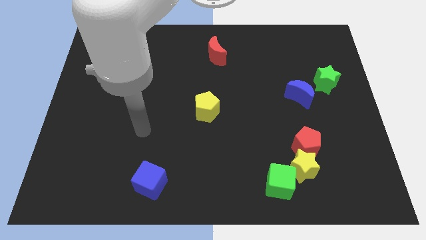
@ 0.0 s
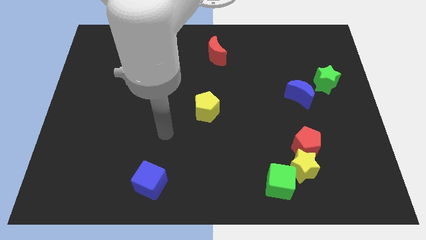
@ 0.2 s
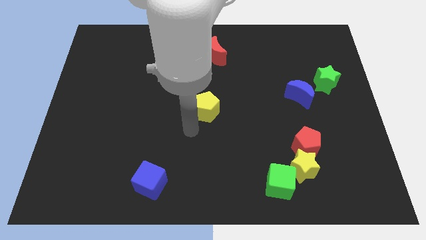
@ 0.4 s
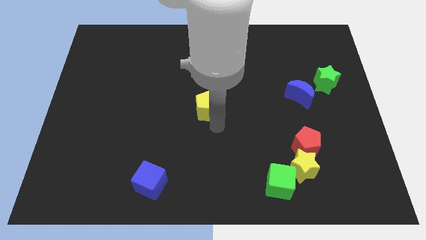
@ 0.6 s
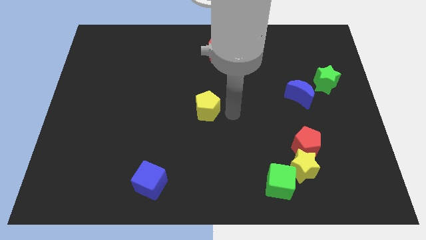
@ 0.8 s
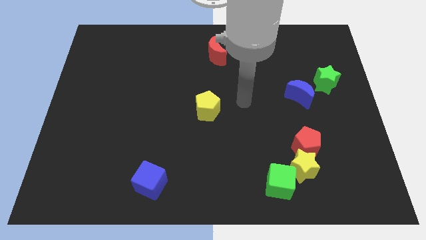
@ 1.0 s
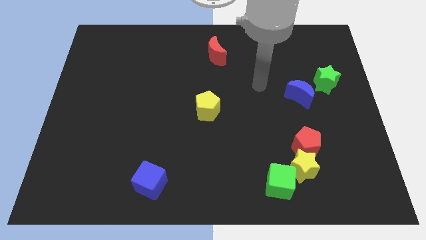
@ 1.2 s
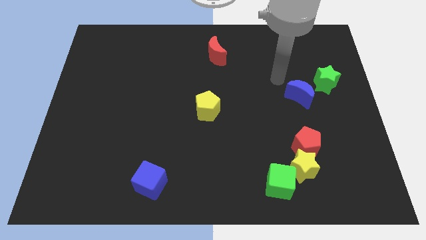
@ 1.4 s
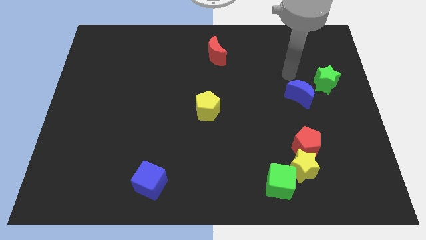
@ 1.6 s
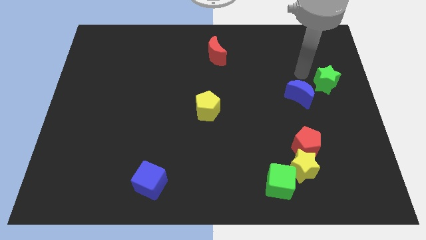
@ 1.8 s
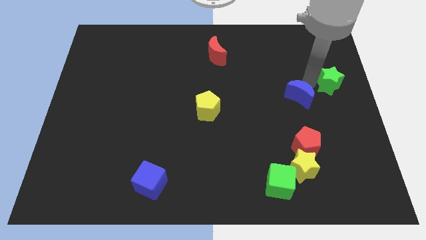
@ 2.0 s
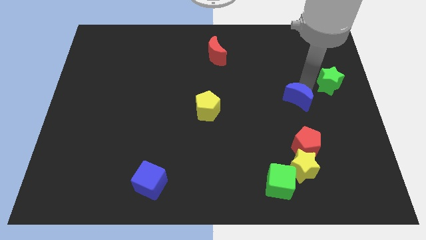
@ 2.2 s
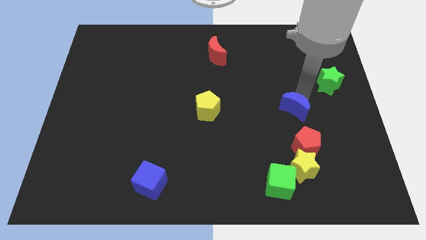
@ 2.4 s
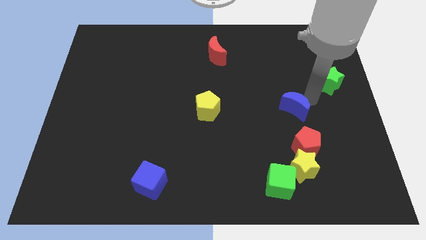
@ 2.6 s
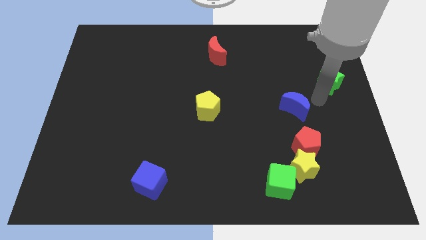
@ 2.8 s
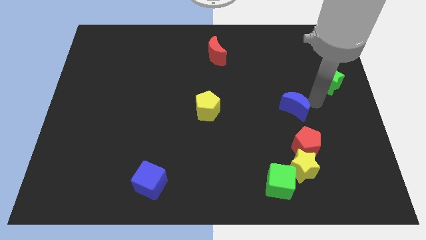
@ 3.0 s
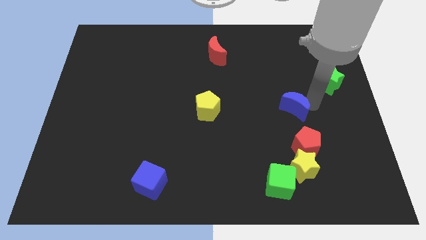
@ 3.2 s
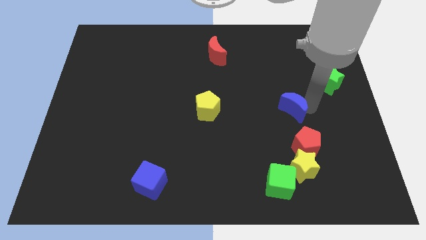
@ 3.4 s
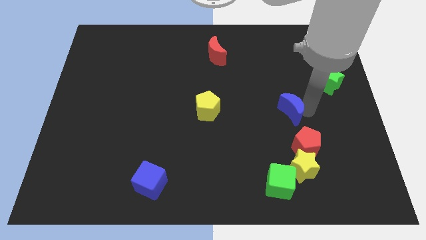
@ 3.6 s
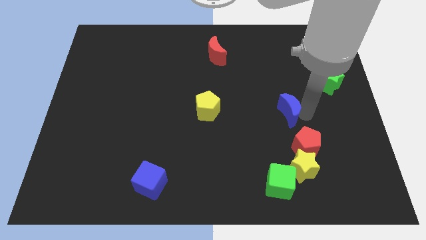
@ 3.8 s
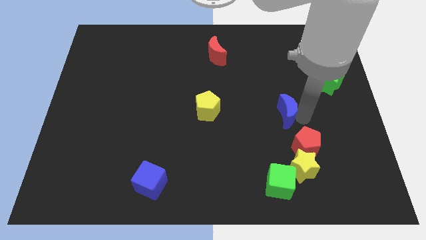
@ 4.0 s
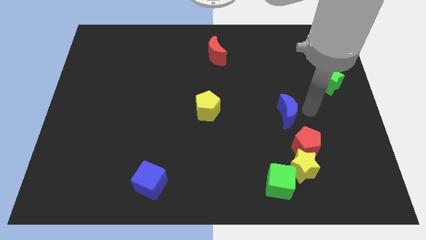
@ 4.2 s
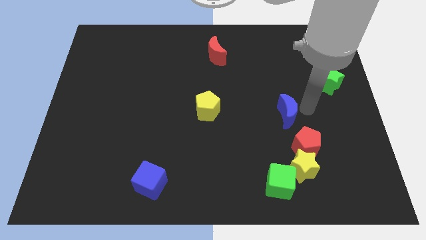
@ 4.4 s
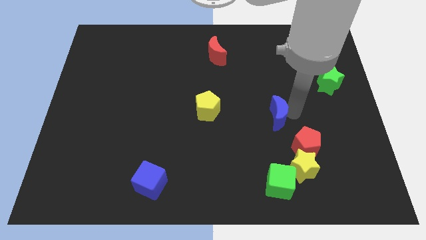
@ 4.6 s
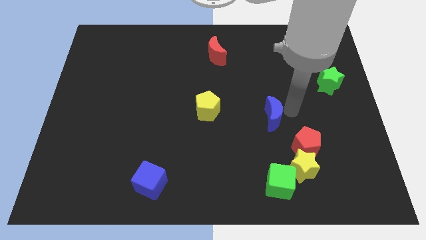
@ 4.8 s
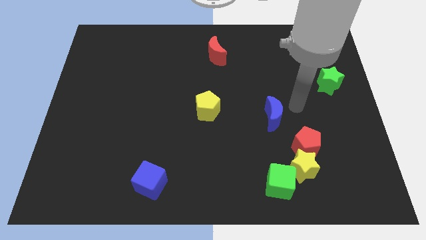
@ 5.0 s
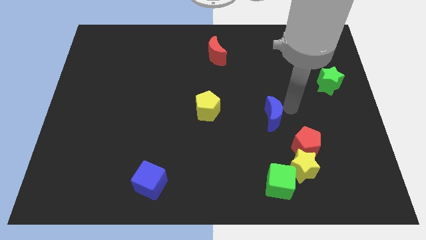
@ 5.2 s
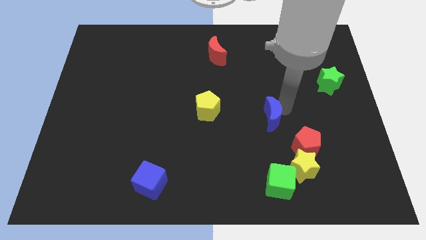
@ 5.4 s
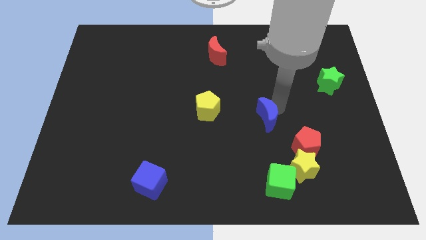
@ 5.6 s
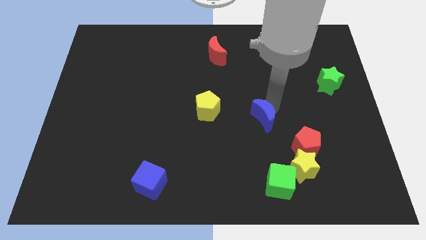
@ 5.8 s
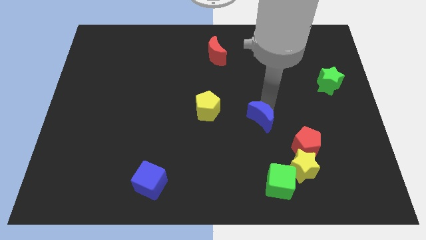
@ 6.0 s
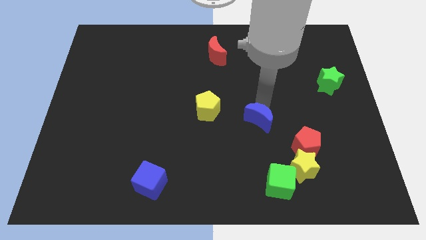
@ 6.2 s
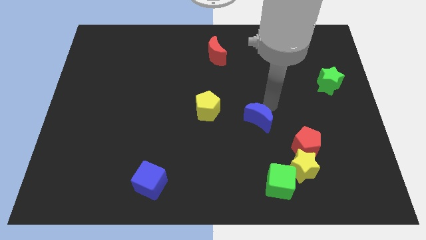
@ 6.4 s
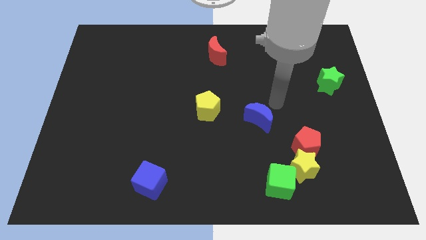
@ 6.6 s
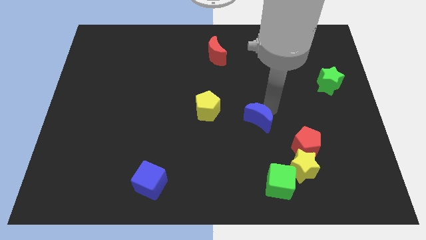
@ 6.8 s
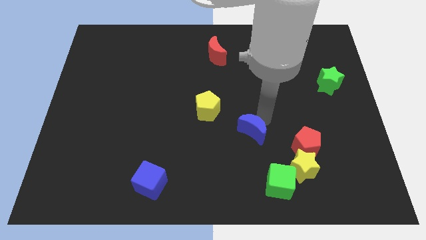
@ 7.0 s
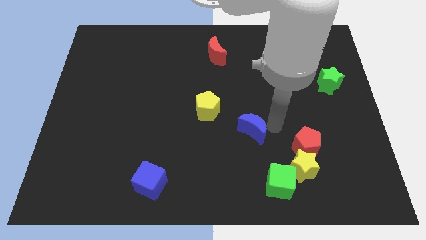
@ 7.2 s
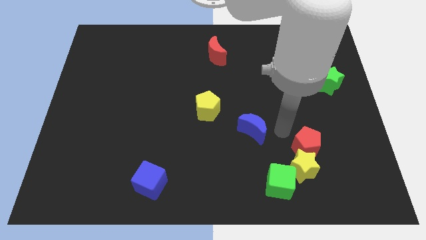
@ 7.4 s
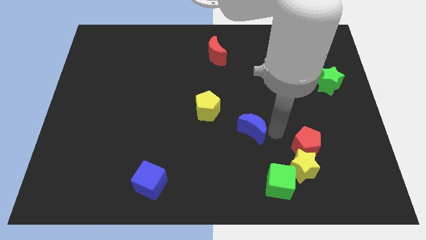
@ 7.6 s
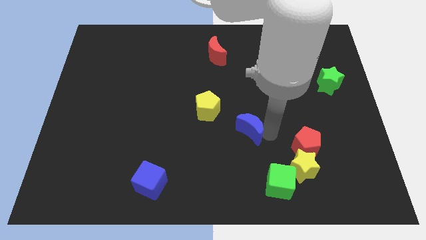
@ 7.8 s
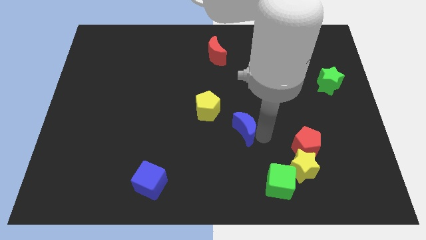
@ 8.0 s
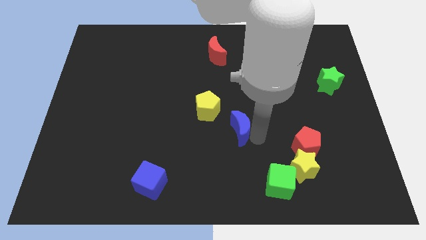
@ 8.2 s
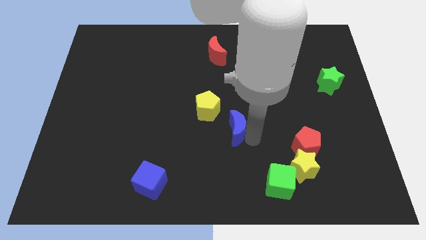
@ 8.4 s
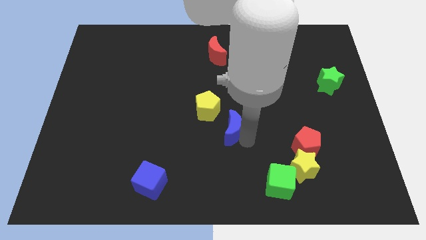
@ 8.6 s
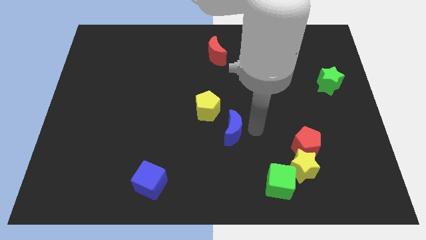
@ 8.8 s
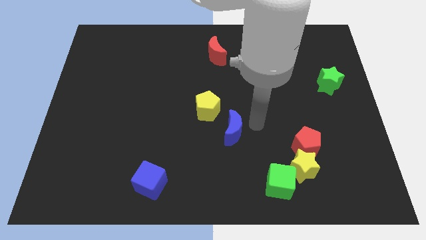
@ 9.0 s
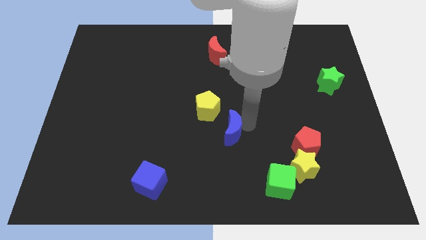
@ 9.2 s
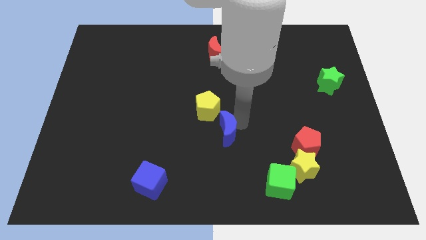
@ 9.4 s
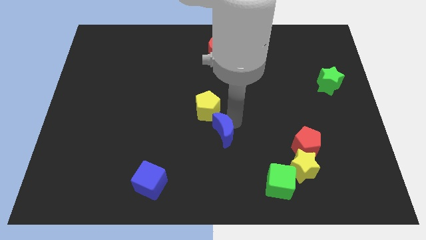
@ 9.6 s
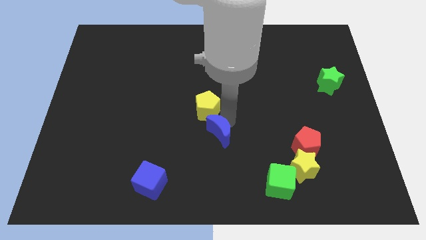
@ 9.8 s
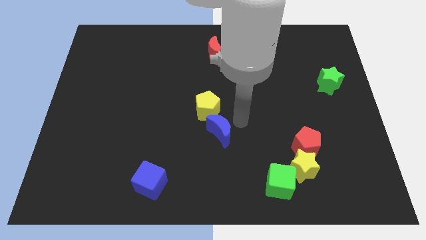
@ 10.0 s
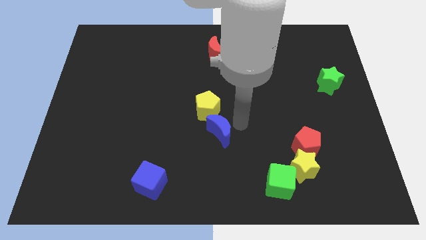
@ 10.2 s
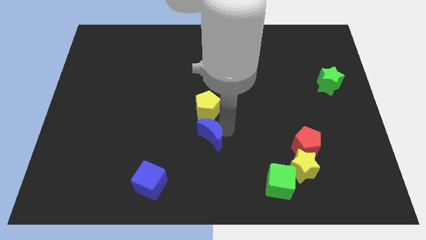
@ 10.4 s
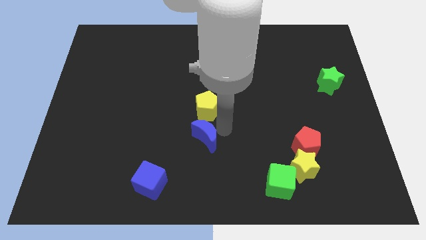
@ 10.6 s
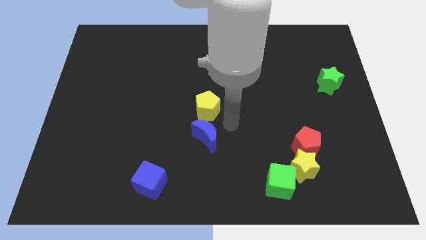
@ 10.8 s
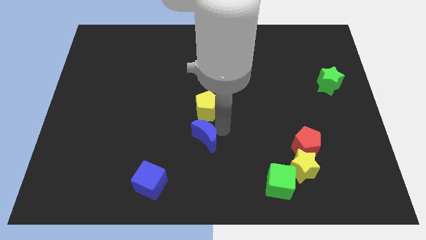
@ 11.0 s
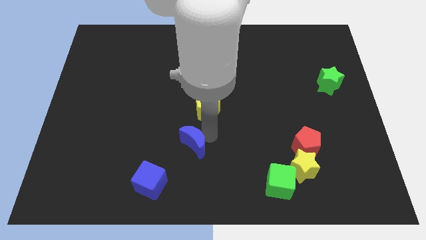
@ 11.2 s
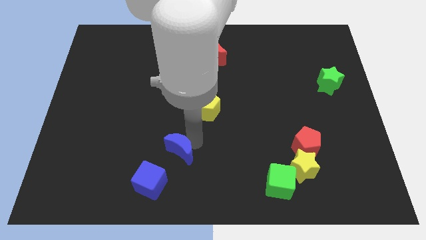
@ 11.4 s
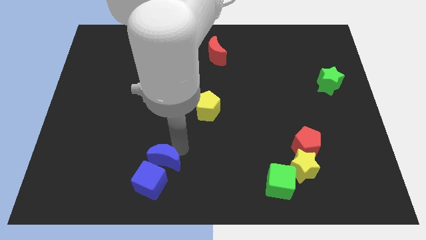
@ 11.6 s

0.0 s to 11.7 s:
put the blue moon towards the blue cube

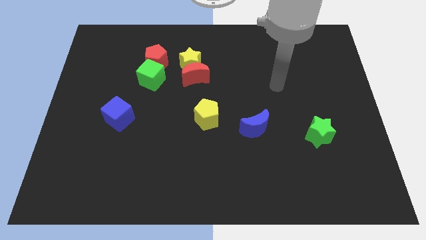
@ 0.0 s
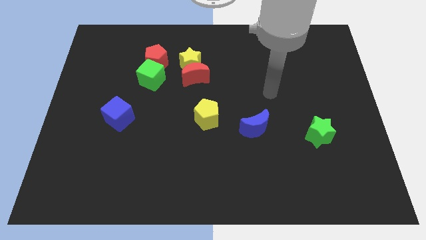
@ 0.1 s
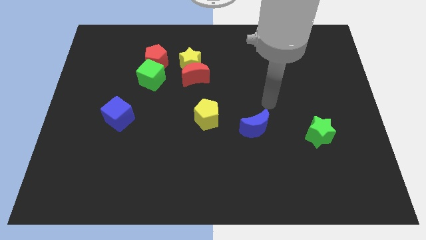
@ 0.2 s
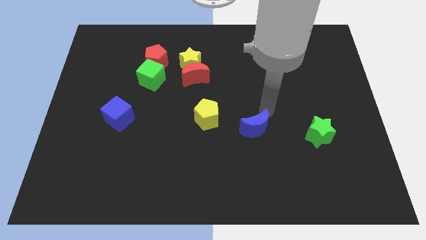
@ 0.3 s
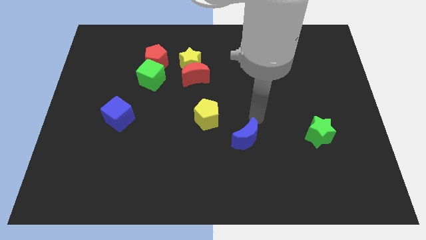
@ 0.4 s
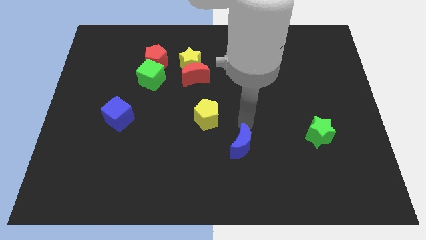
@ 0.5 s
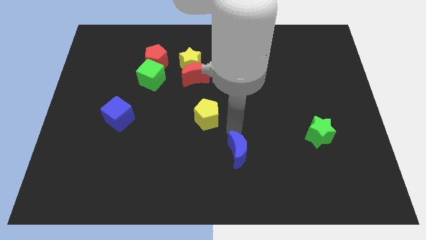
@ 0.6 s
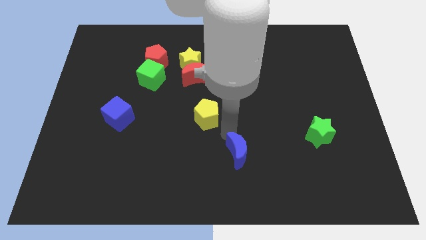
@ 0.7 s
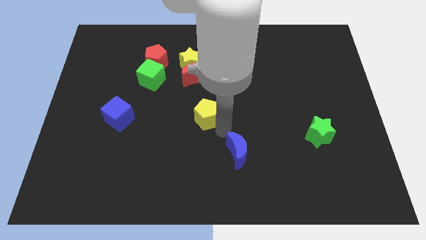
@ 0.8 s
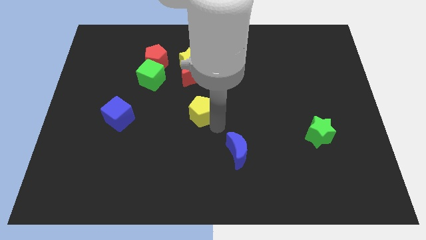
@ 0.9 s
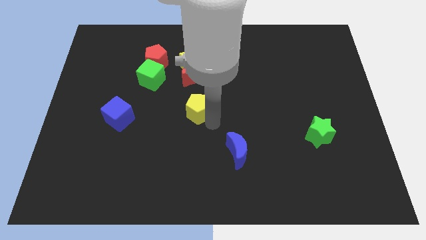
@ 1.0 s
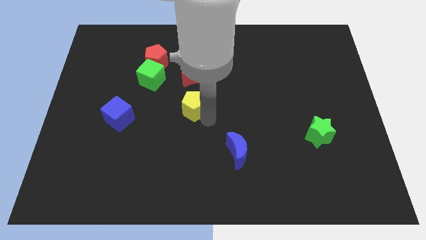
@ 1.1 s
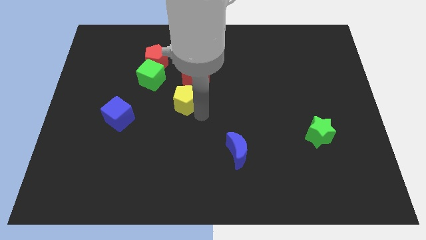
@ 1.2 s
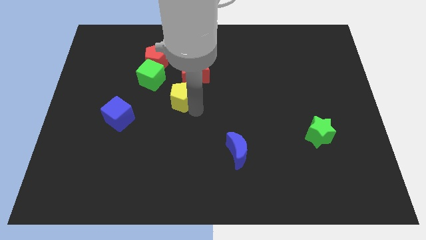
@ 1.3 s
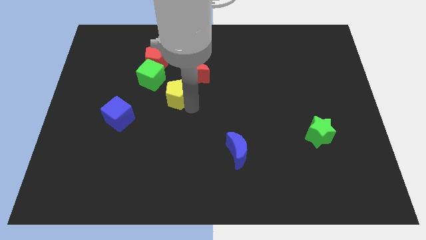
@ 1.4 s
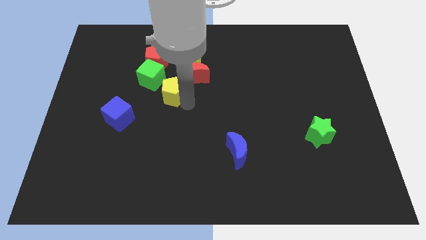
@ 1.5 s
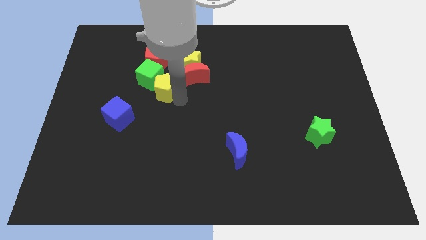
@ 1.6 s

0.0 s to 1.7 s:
push the yellow pentagon to the green cube
